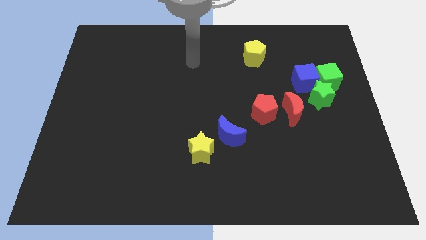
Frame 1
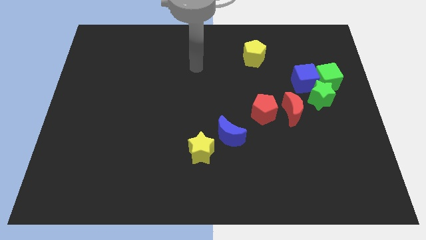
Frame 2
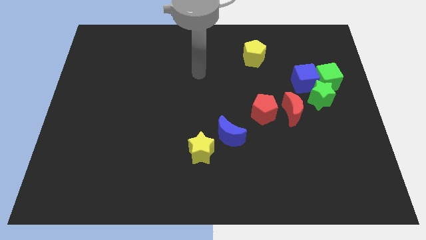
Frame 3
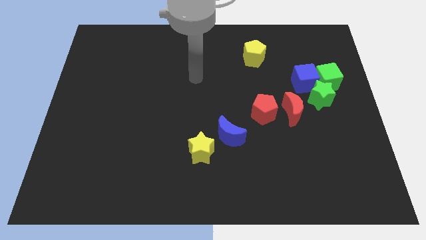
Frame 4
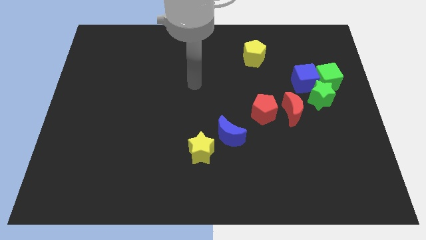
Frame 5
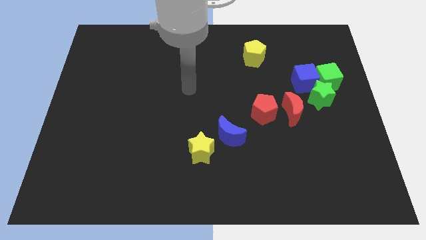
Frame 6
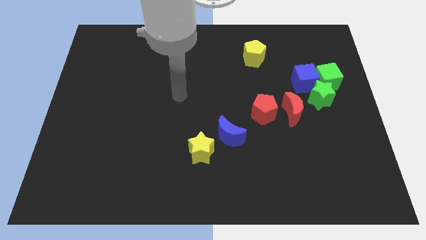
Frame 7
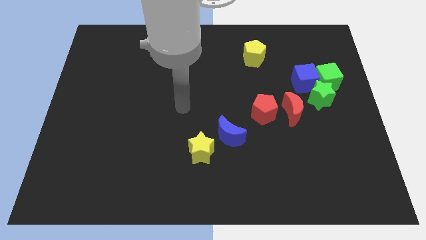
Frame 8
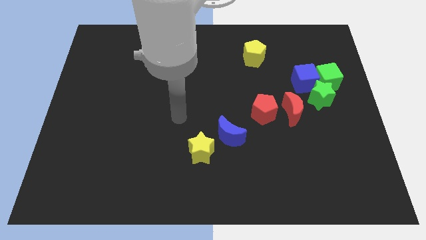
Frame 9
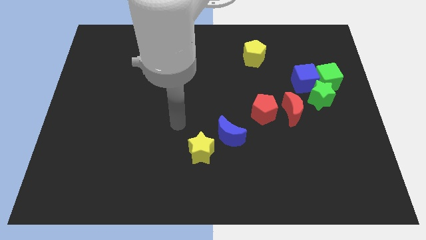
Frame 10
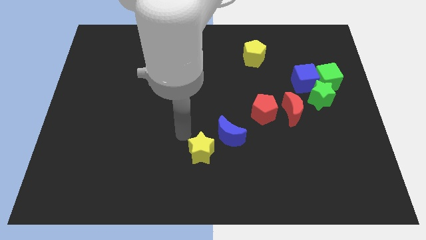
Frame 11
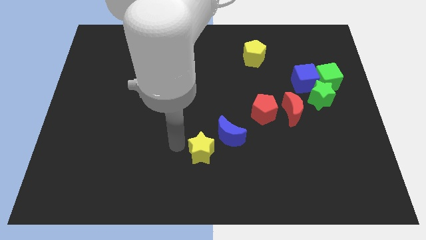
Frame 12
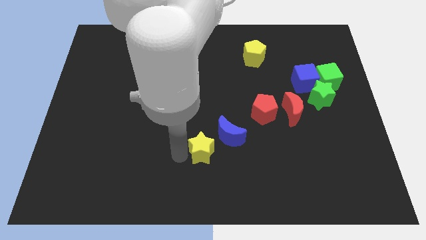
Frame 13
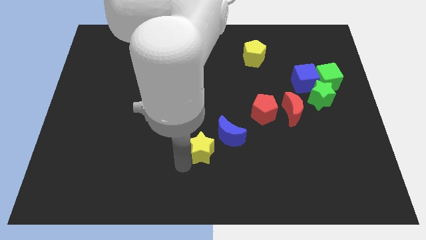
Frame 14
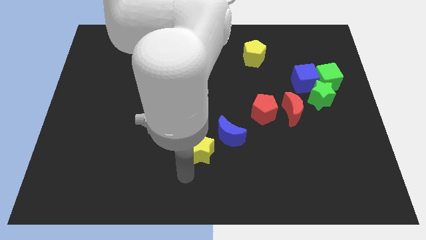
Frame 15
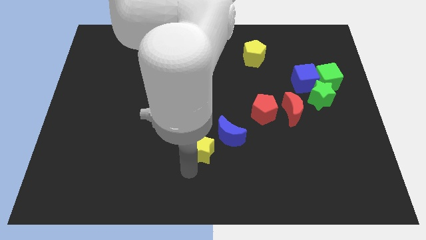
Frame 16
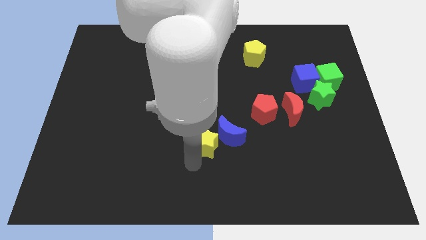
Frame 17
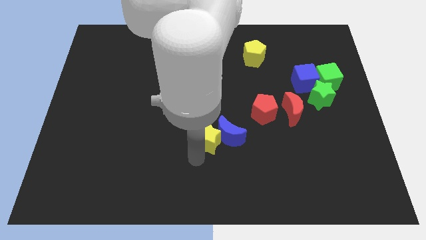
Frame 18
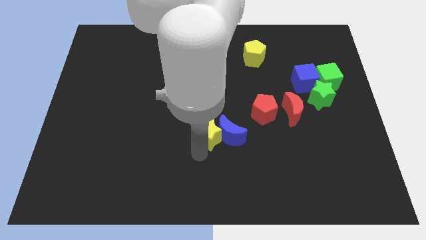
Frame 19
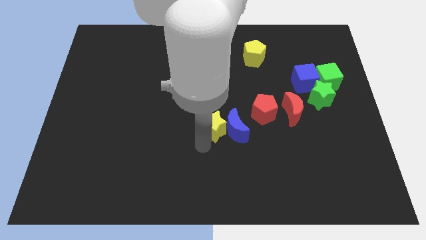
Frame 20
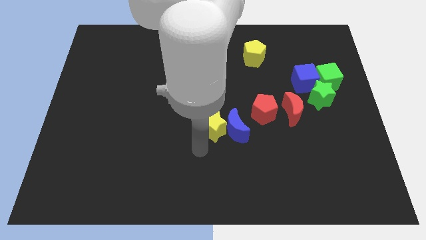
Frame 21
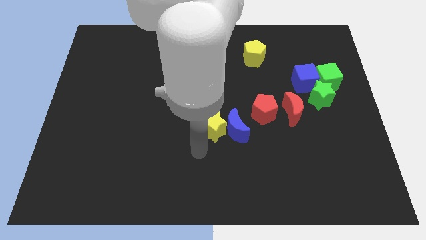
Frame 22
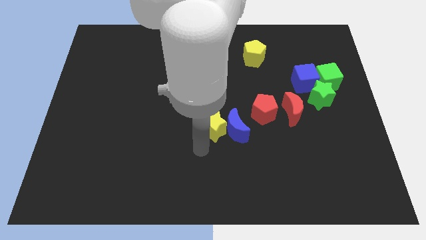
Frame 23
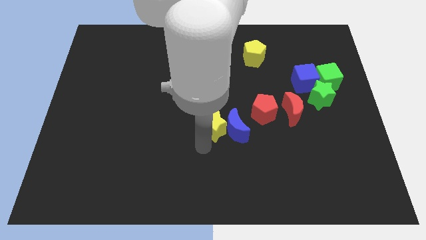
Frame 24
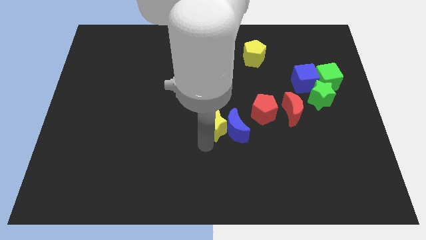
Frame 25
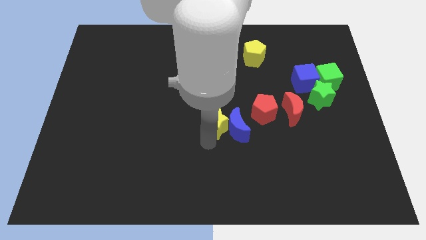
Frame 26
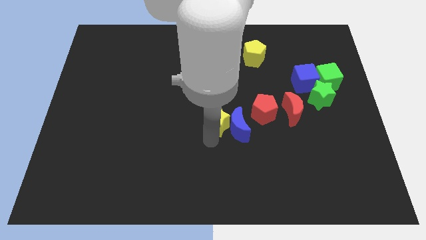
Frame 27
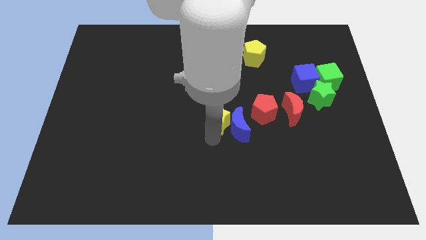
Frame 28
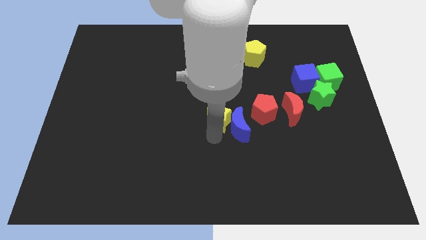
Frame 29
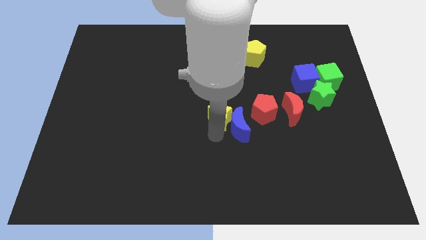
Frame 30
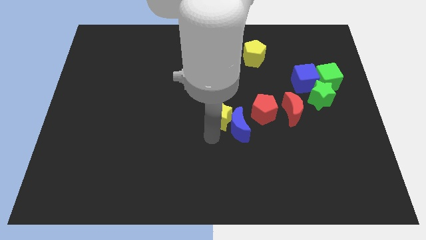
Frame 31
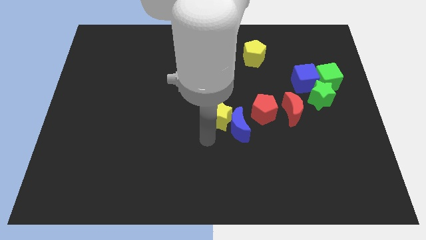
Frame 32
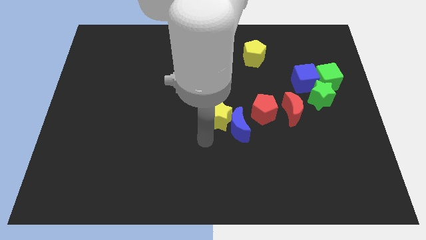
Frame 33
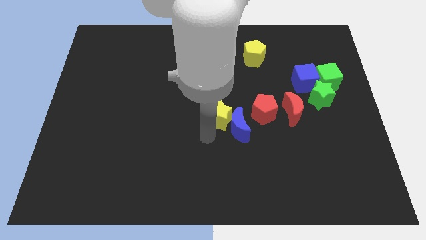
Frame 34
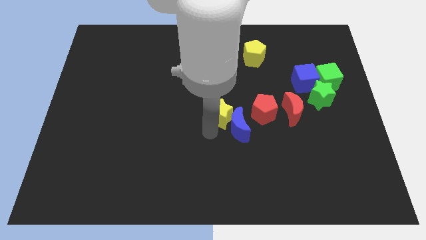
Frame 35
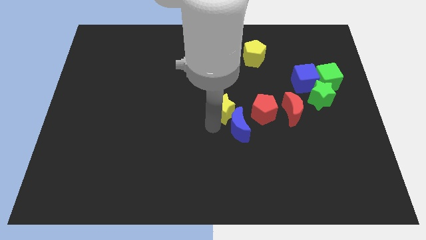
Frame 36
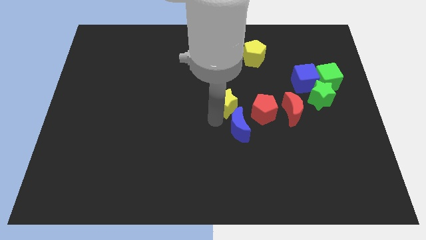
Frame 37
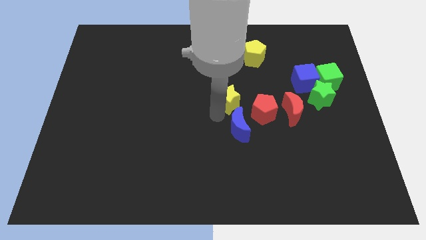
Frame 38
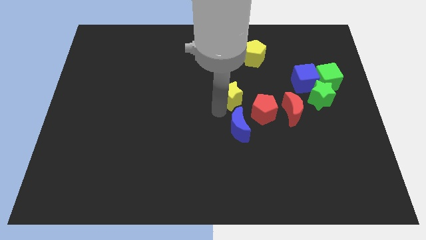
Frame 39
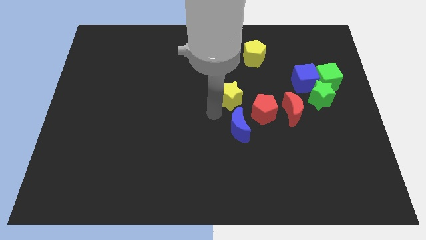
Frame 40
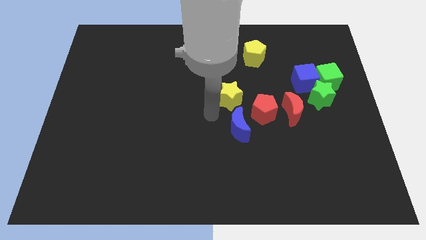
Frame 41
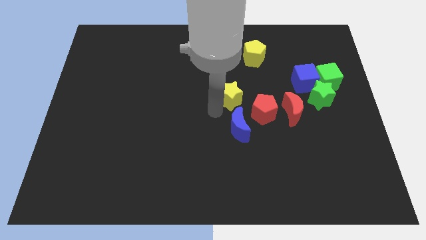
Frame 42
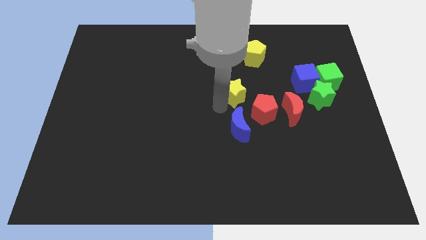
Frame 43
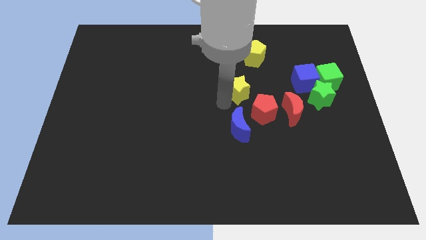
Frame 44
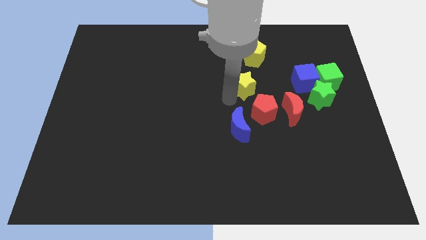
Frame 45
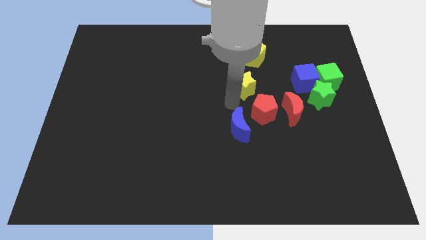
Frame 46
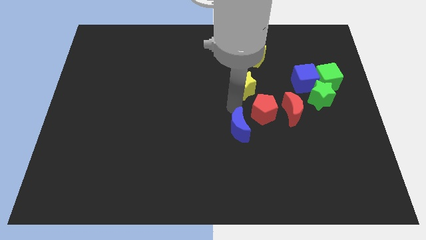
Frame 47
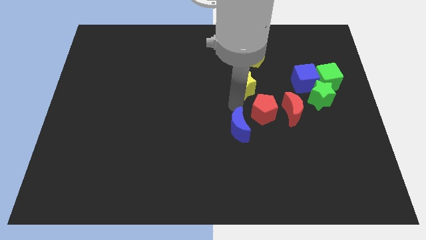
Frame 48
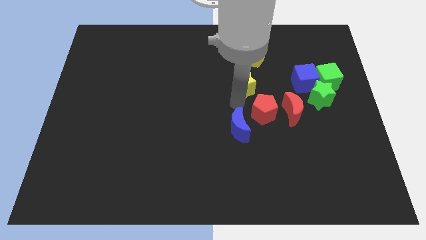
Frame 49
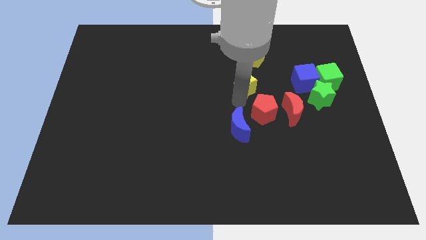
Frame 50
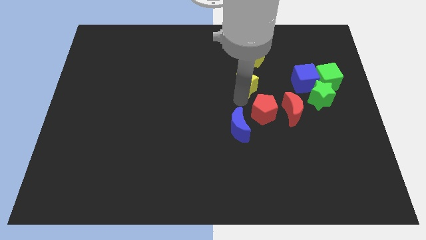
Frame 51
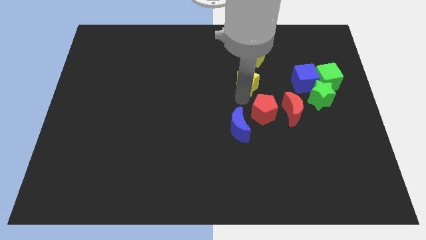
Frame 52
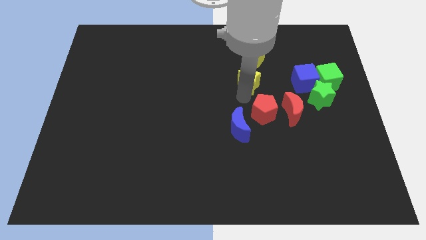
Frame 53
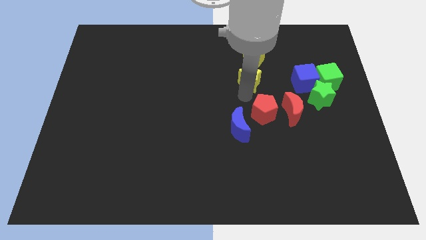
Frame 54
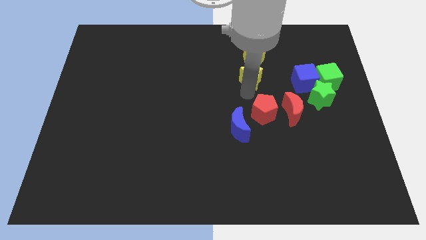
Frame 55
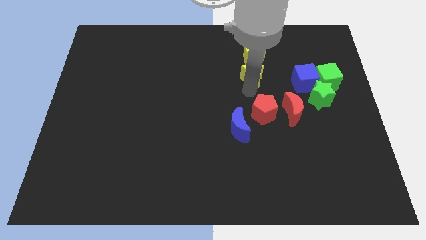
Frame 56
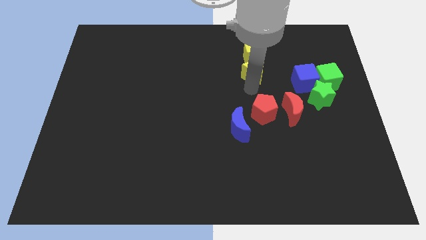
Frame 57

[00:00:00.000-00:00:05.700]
put the yellow star towards the yellow pentagon

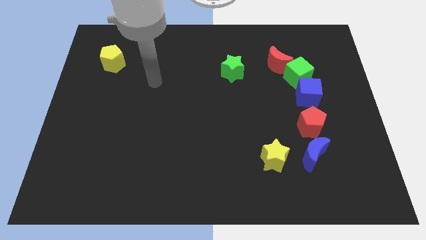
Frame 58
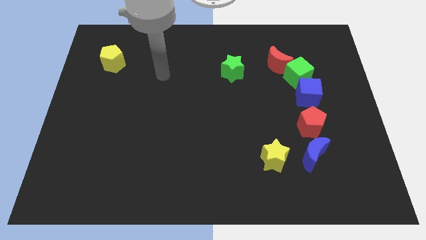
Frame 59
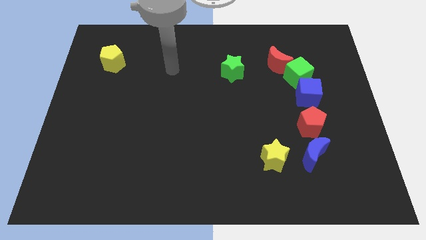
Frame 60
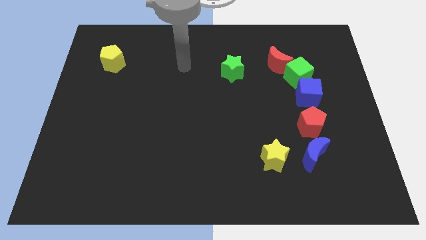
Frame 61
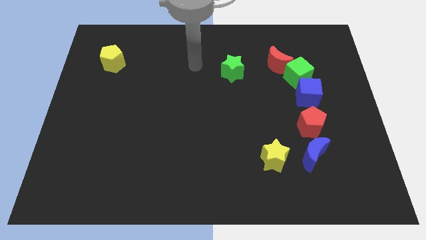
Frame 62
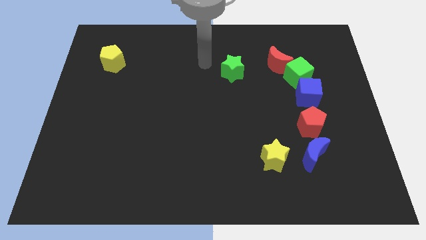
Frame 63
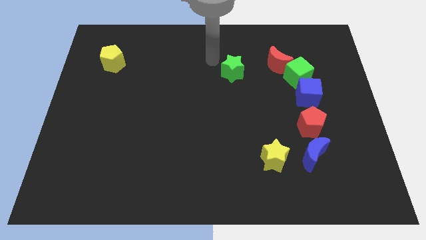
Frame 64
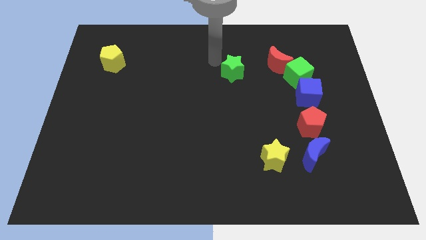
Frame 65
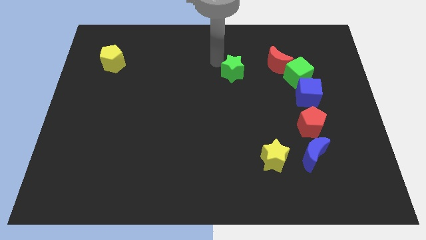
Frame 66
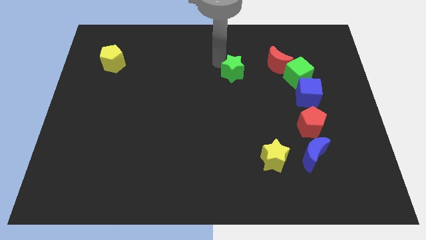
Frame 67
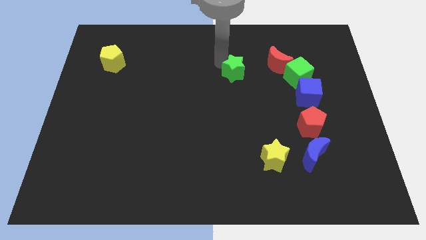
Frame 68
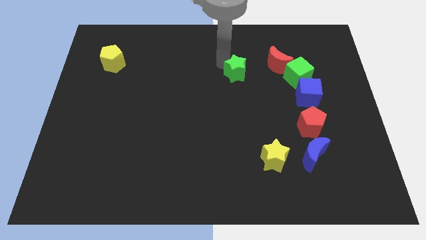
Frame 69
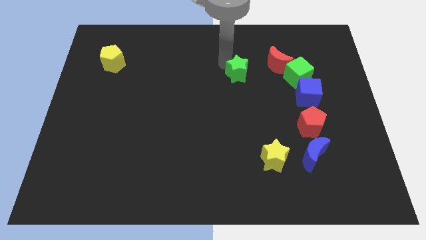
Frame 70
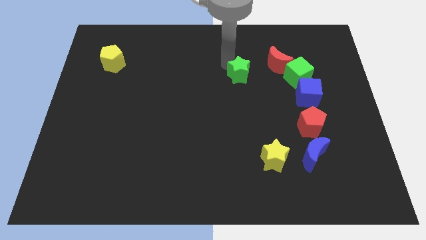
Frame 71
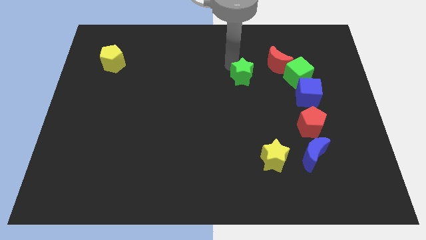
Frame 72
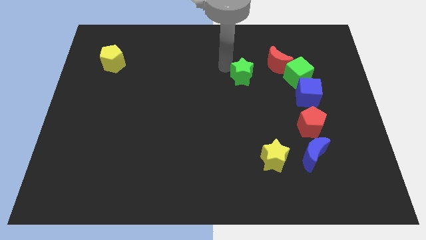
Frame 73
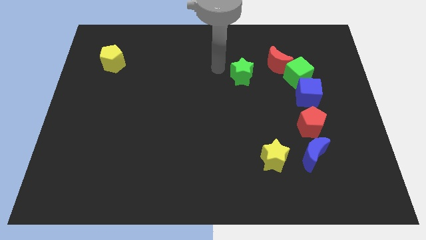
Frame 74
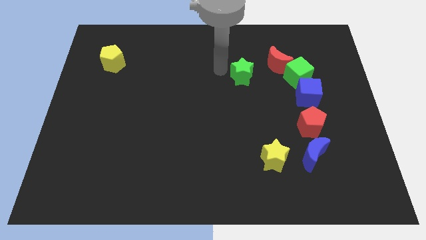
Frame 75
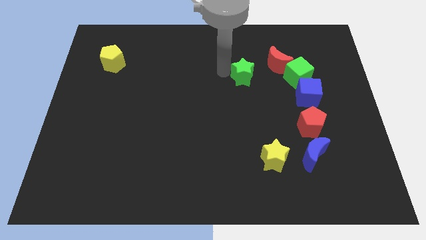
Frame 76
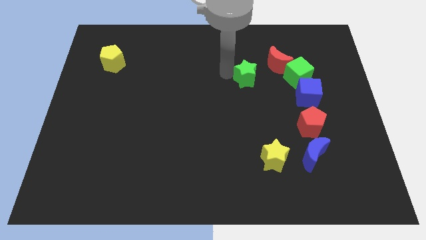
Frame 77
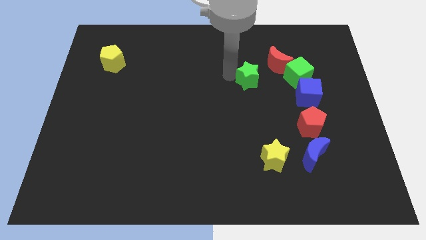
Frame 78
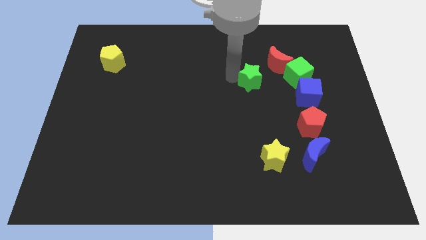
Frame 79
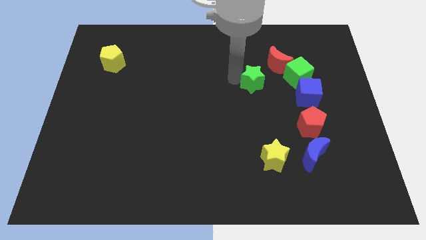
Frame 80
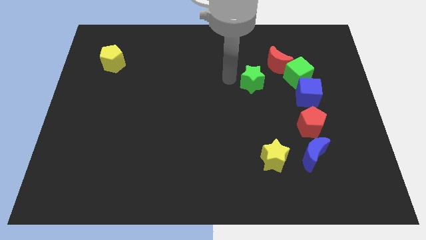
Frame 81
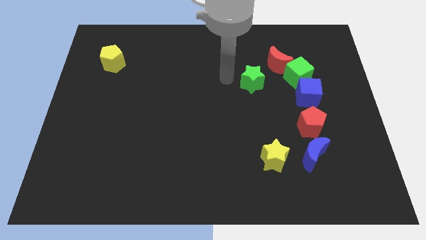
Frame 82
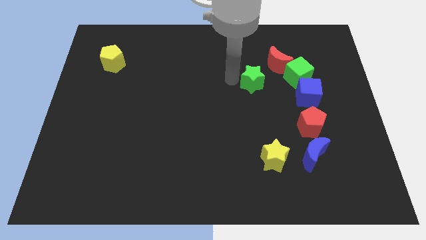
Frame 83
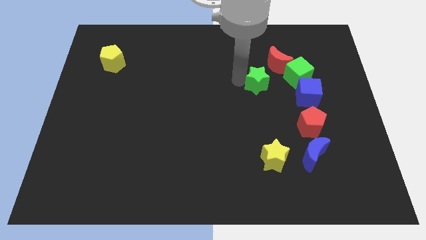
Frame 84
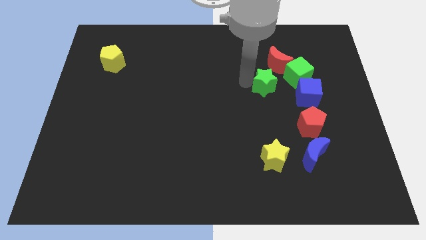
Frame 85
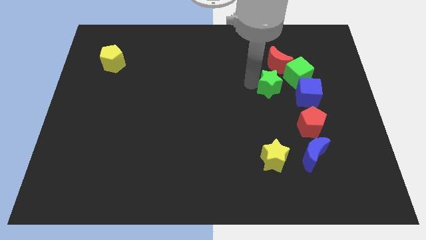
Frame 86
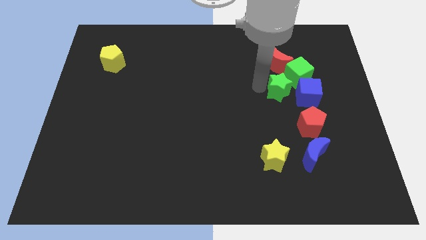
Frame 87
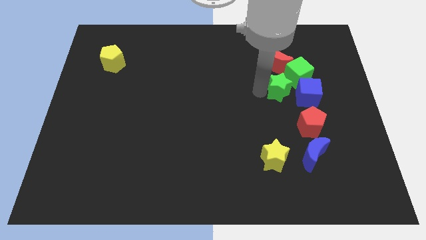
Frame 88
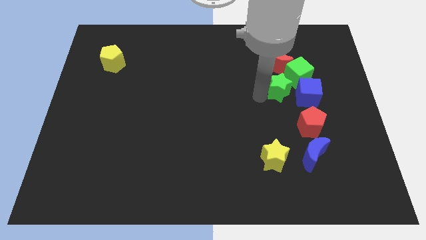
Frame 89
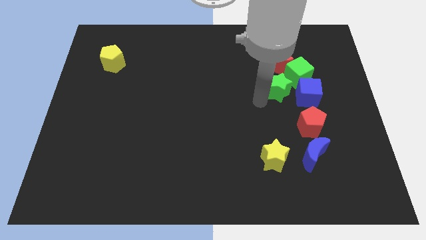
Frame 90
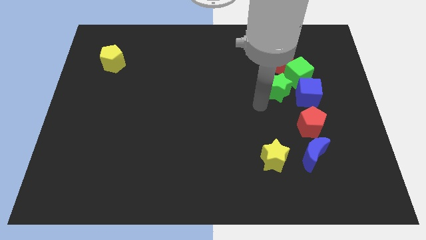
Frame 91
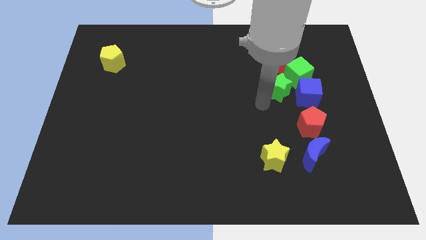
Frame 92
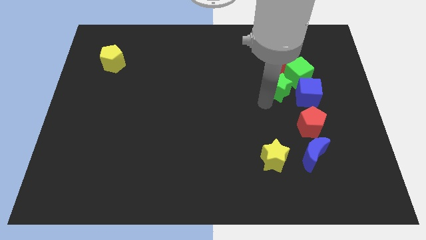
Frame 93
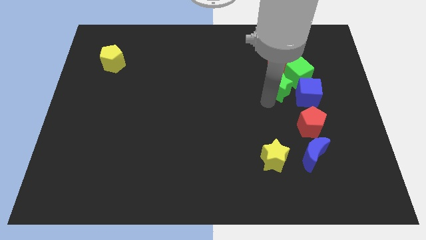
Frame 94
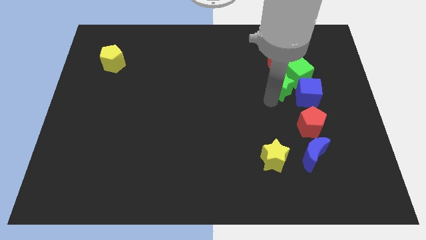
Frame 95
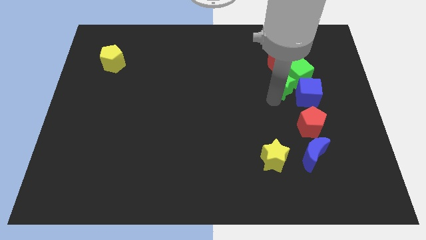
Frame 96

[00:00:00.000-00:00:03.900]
slide the green star next to the green cube
